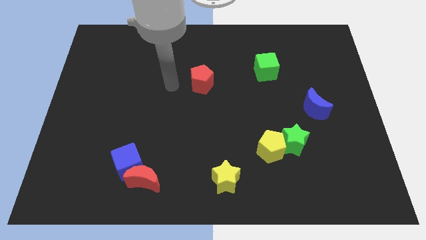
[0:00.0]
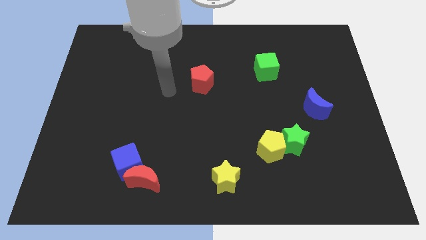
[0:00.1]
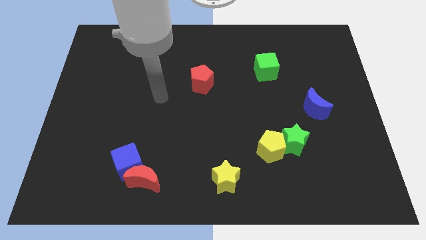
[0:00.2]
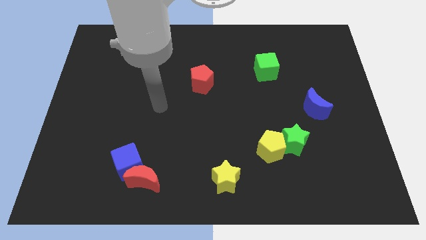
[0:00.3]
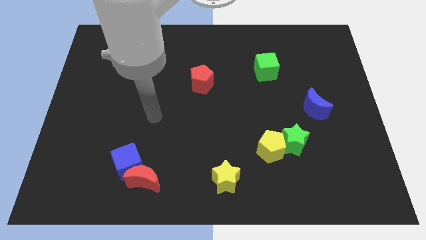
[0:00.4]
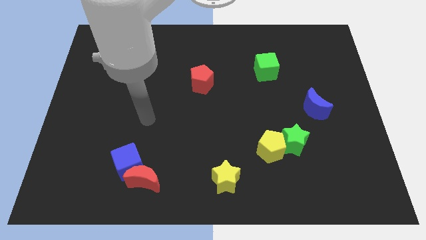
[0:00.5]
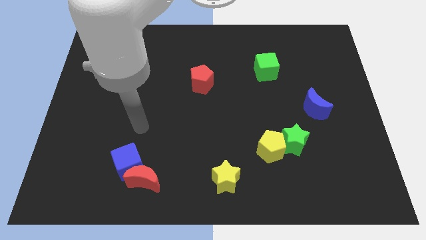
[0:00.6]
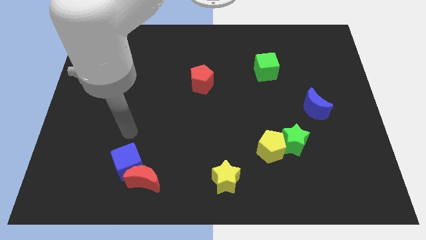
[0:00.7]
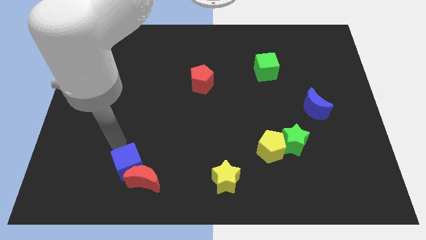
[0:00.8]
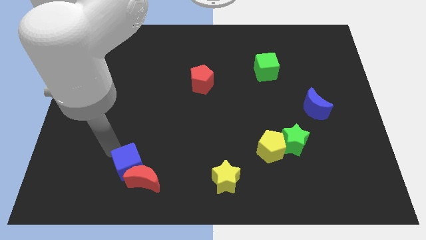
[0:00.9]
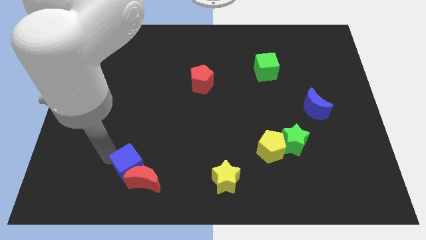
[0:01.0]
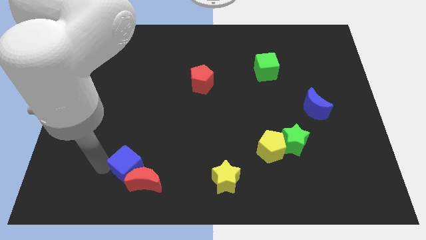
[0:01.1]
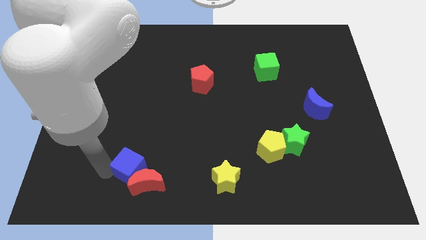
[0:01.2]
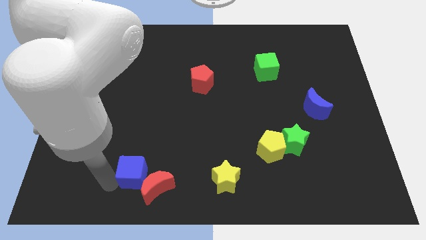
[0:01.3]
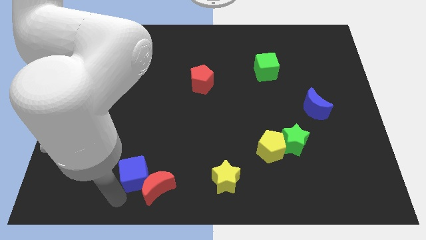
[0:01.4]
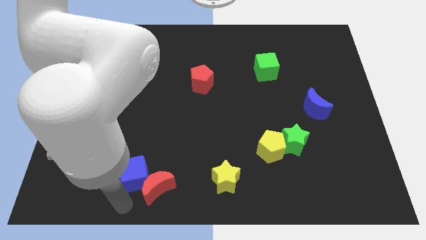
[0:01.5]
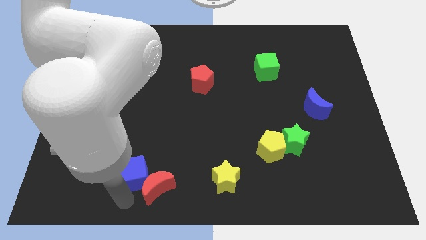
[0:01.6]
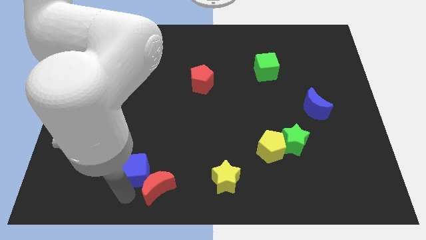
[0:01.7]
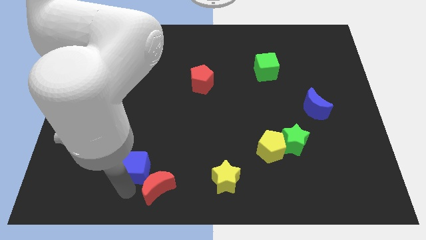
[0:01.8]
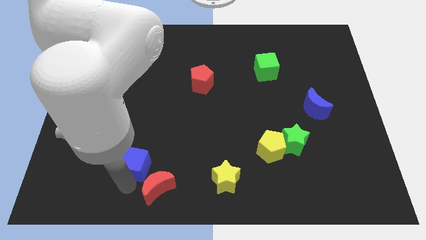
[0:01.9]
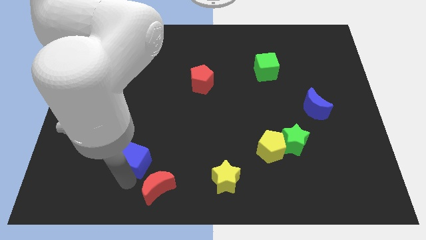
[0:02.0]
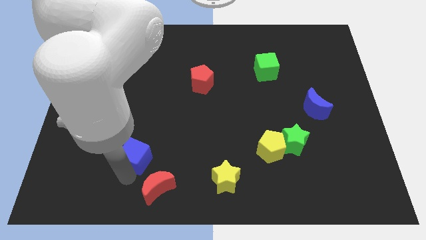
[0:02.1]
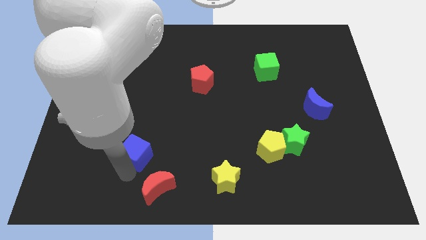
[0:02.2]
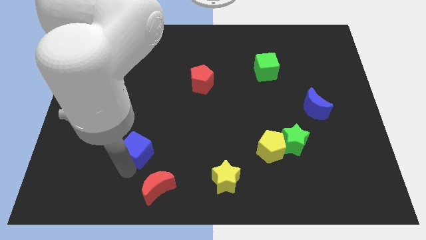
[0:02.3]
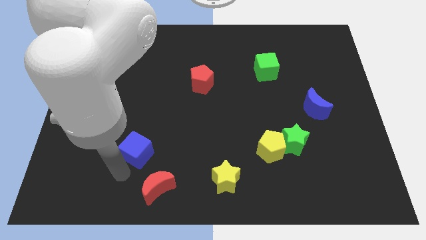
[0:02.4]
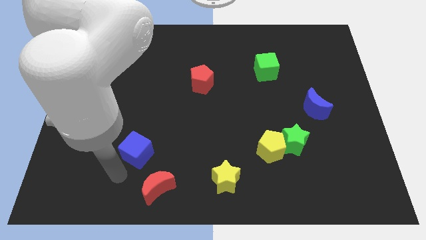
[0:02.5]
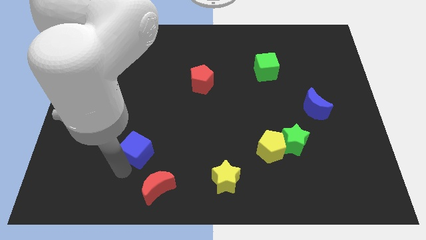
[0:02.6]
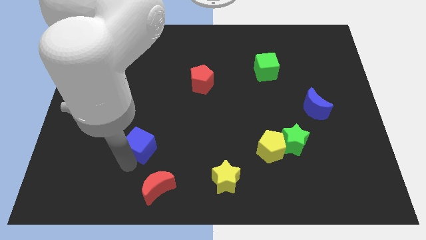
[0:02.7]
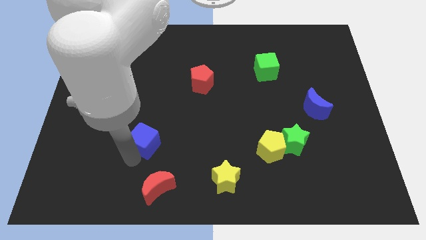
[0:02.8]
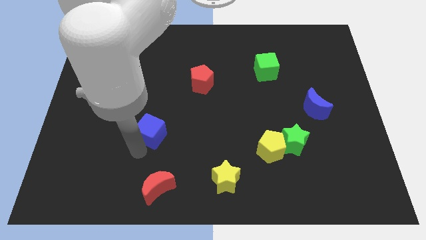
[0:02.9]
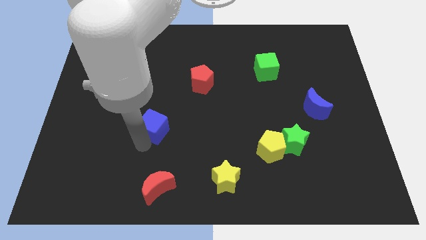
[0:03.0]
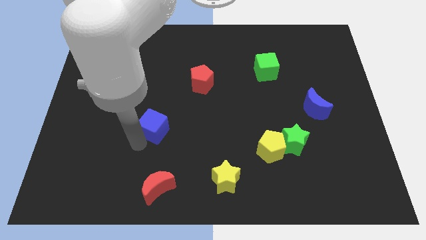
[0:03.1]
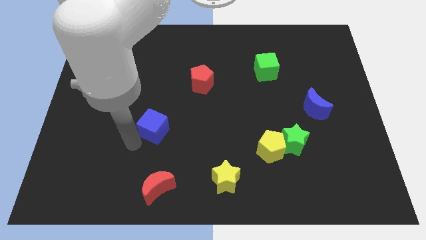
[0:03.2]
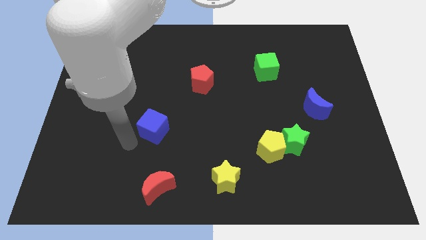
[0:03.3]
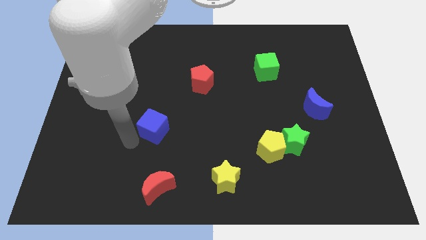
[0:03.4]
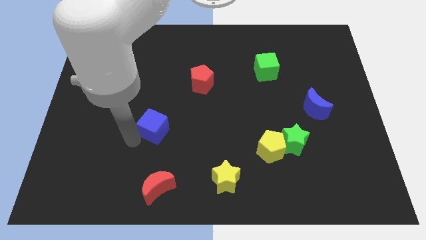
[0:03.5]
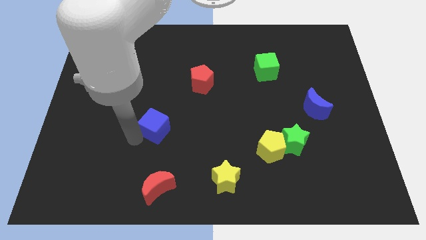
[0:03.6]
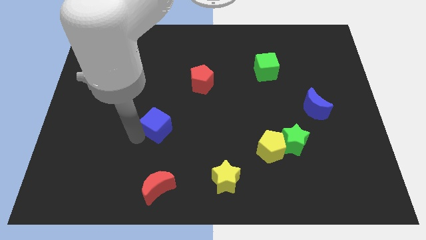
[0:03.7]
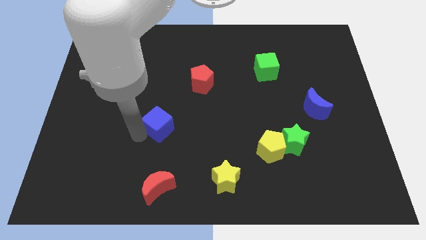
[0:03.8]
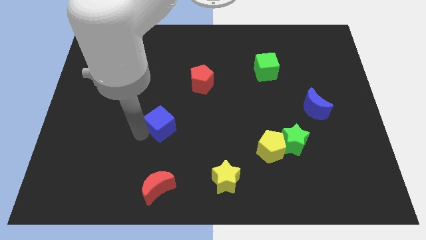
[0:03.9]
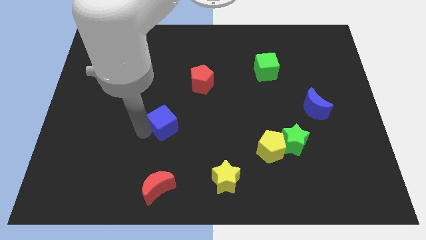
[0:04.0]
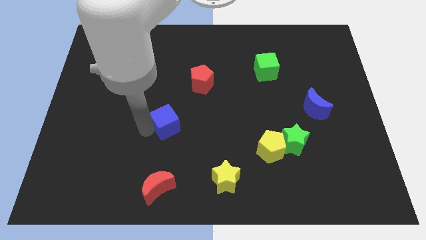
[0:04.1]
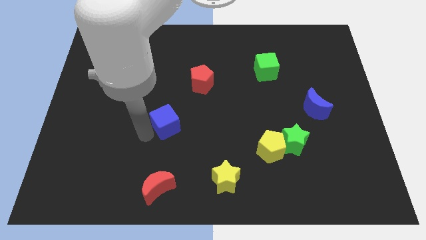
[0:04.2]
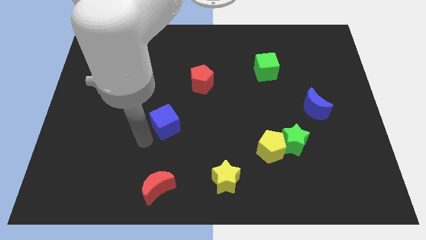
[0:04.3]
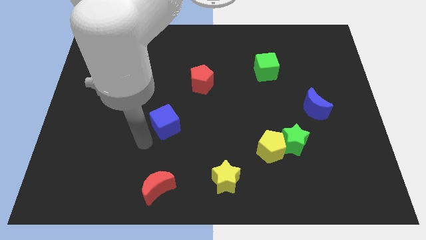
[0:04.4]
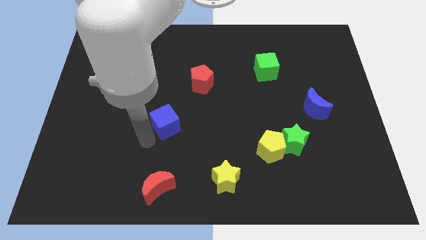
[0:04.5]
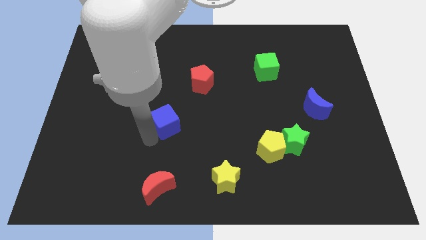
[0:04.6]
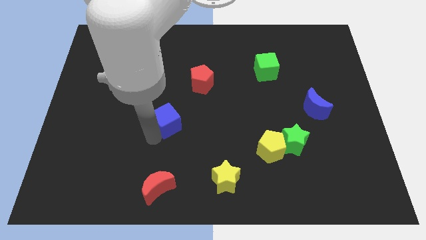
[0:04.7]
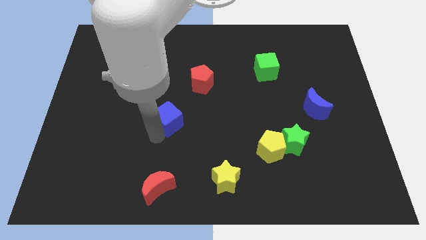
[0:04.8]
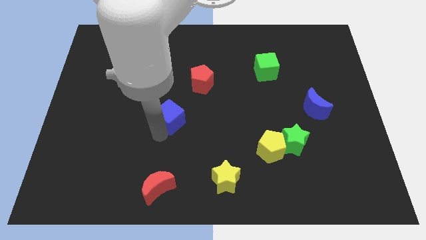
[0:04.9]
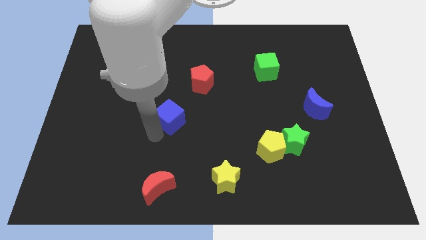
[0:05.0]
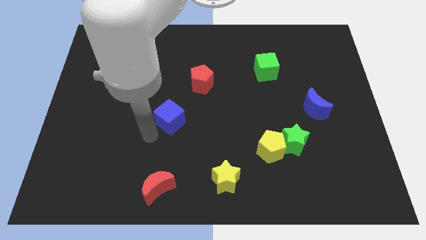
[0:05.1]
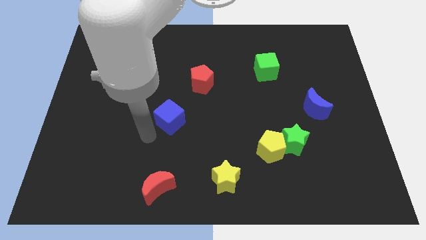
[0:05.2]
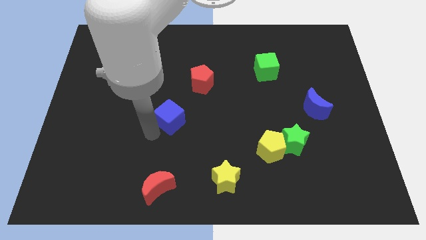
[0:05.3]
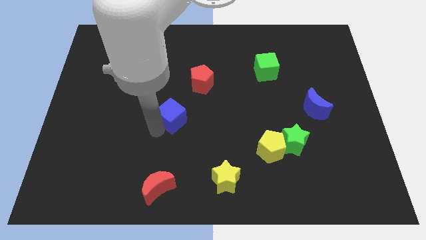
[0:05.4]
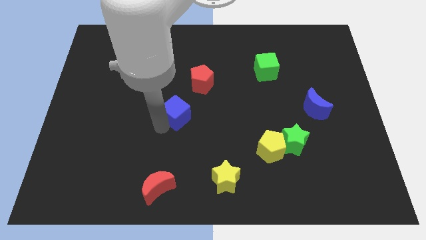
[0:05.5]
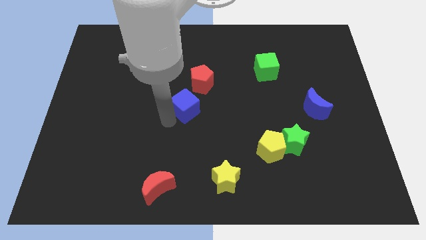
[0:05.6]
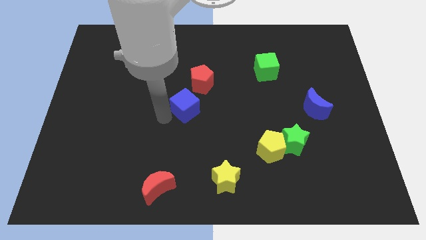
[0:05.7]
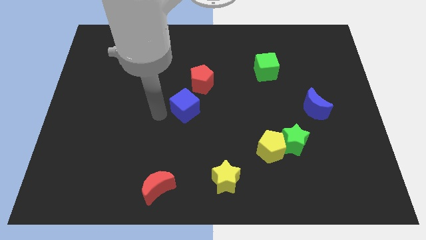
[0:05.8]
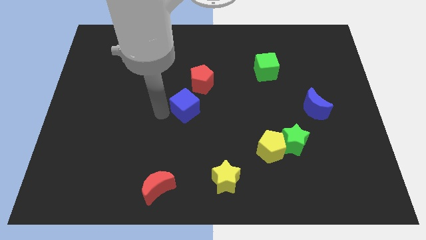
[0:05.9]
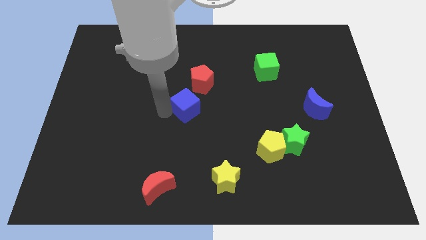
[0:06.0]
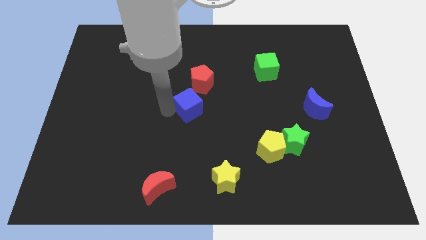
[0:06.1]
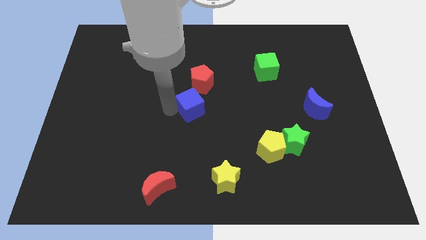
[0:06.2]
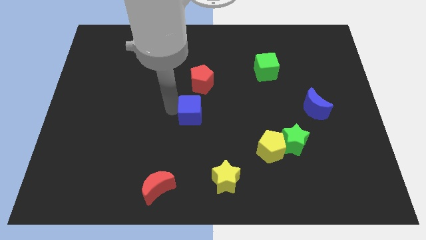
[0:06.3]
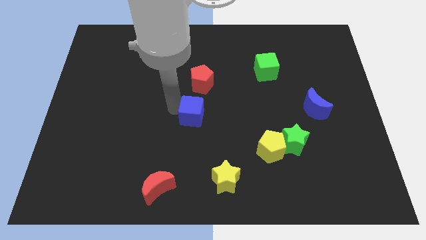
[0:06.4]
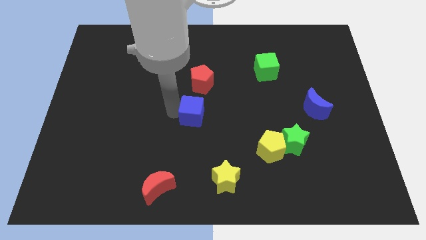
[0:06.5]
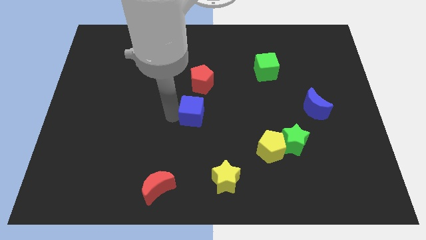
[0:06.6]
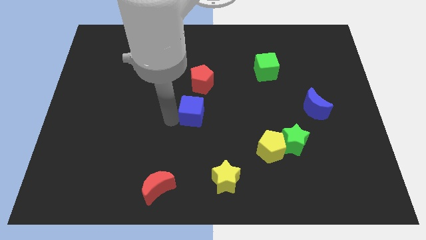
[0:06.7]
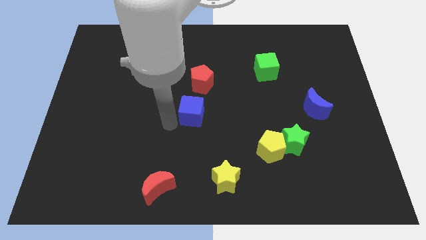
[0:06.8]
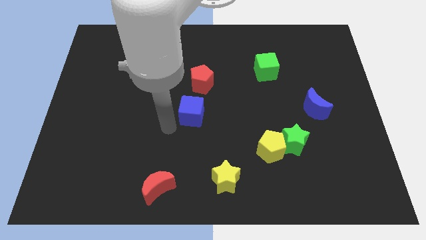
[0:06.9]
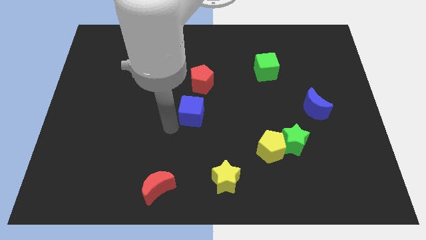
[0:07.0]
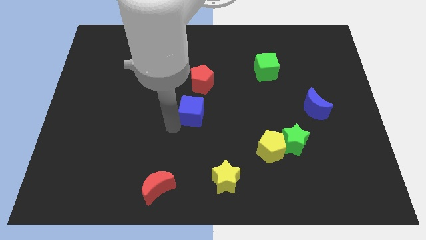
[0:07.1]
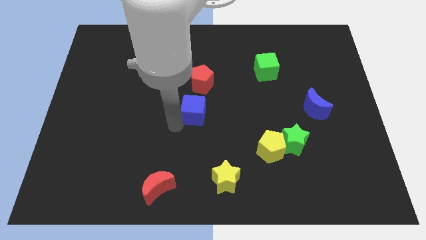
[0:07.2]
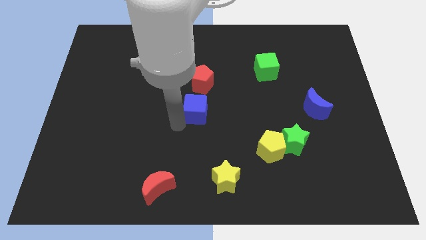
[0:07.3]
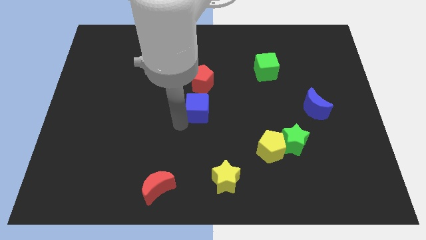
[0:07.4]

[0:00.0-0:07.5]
move the blue cube upwards and right

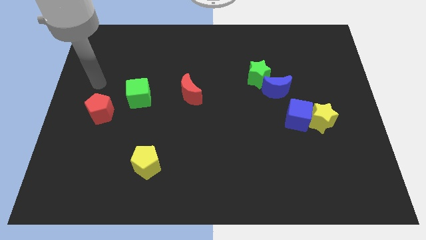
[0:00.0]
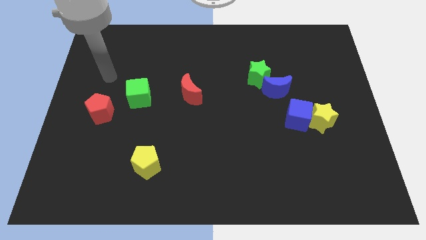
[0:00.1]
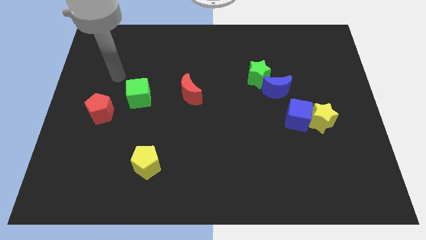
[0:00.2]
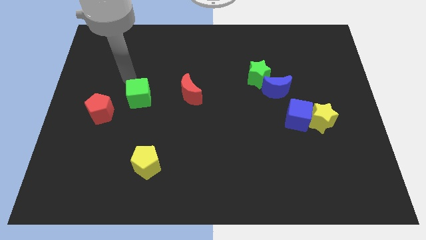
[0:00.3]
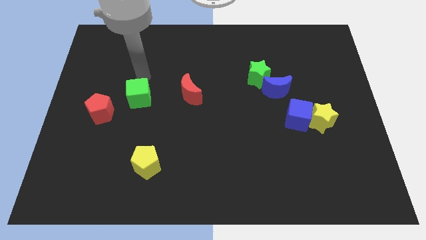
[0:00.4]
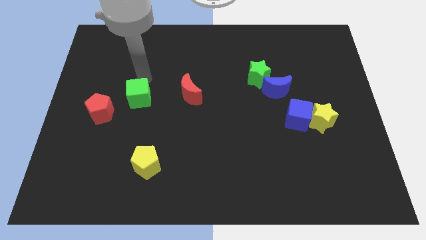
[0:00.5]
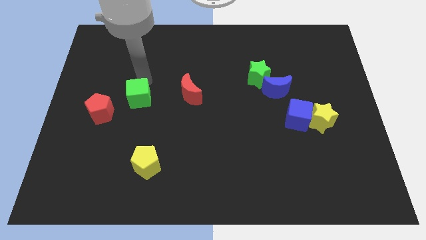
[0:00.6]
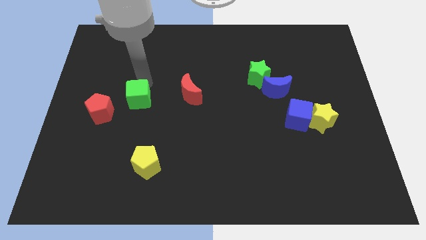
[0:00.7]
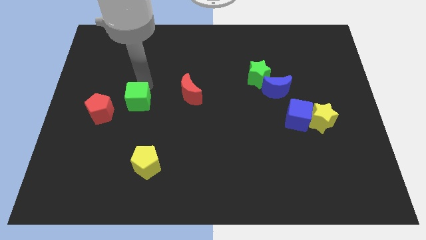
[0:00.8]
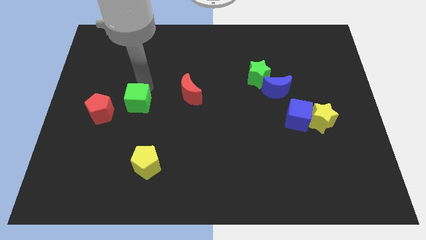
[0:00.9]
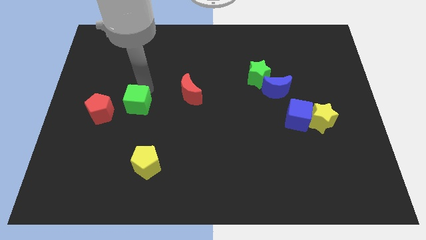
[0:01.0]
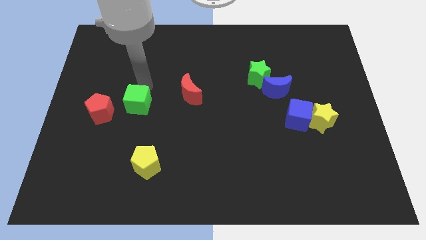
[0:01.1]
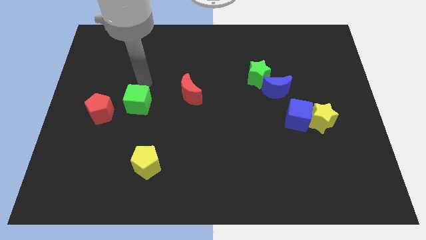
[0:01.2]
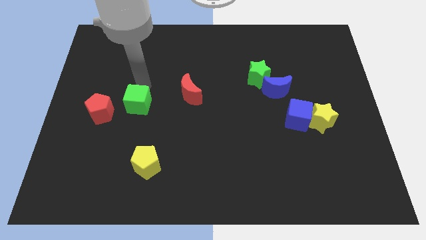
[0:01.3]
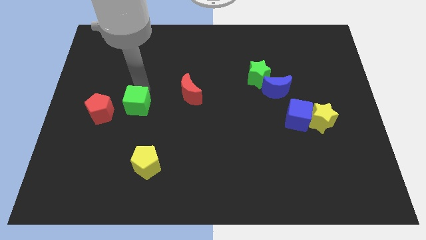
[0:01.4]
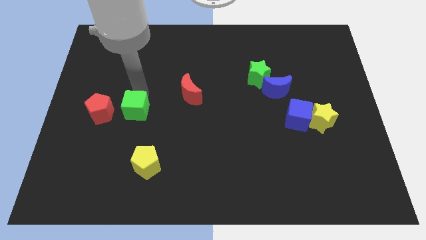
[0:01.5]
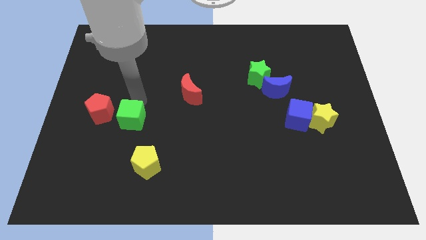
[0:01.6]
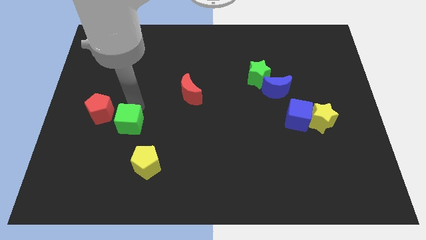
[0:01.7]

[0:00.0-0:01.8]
slide the green cube downwards slightly
